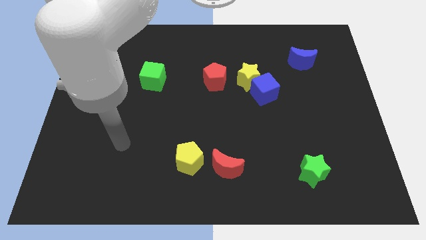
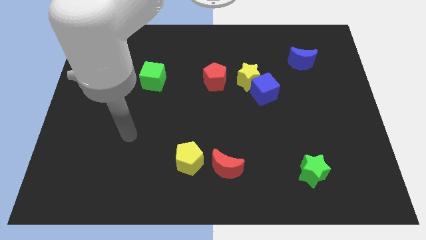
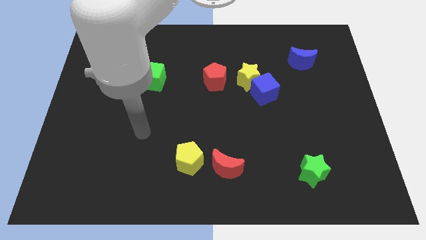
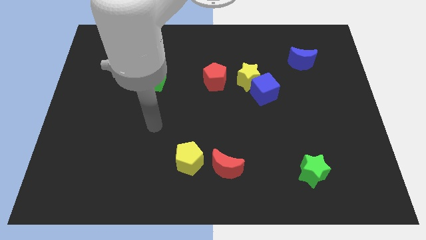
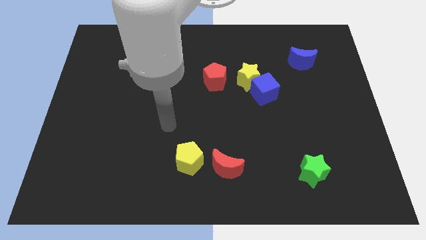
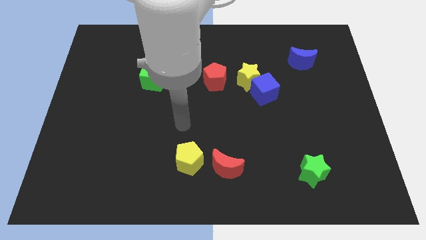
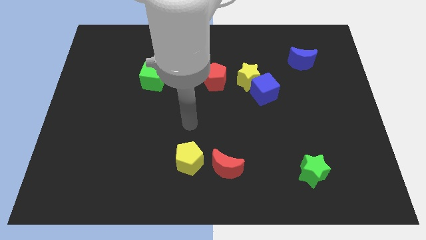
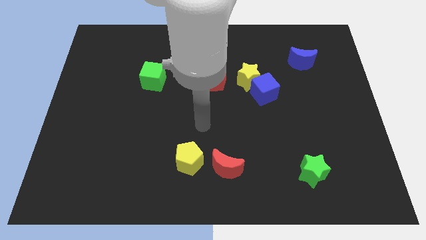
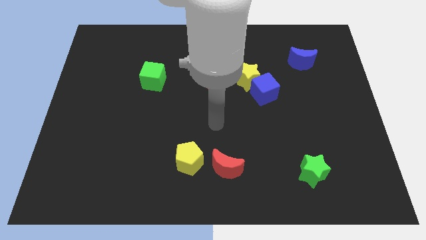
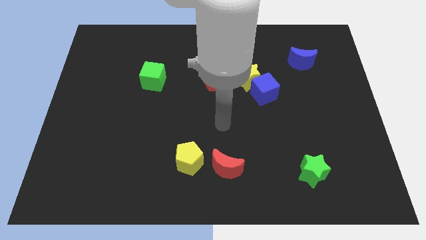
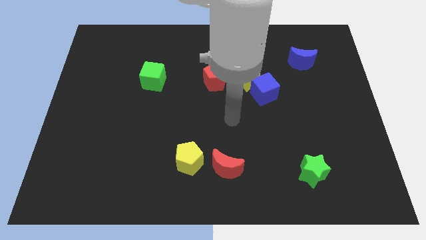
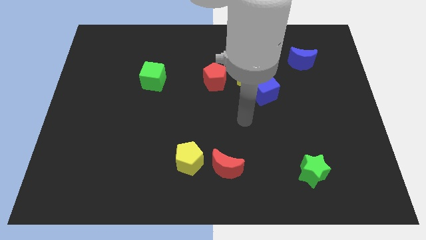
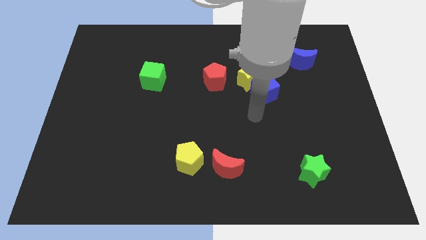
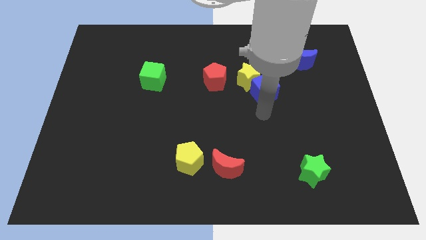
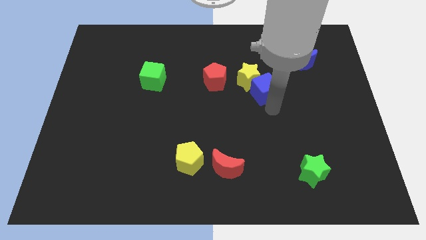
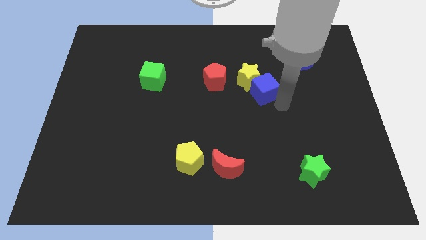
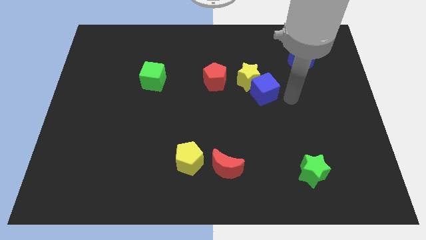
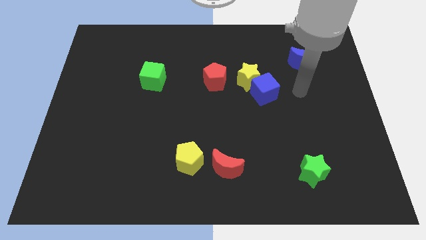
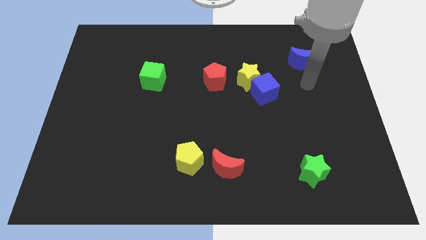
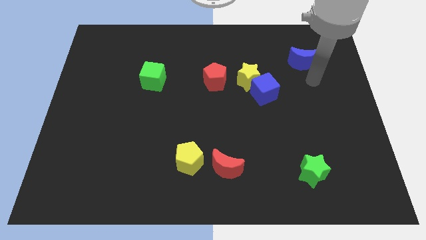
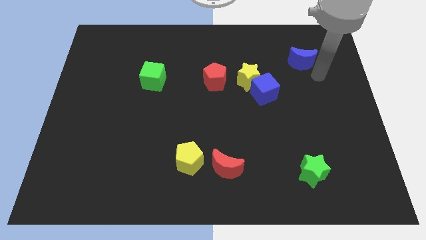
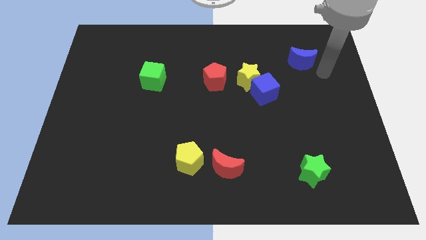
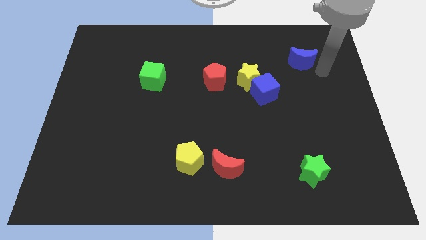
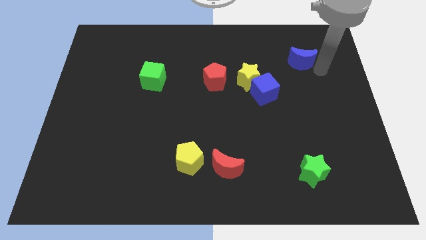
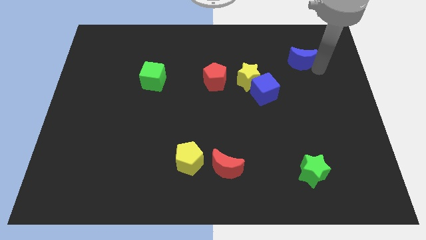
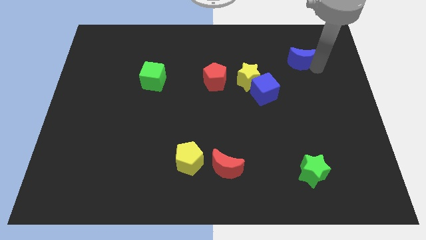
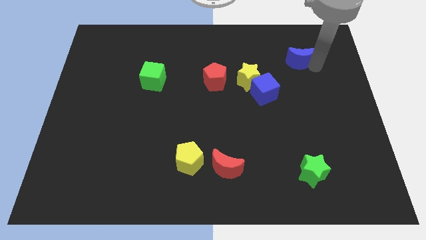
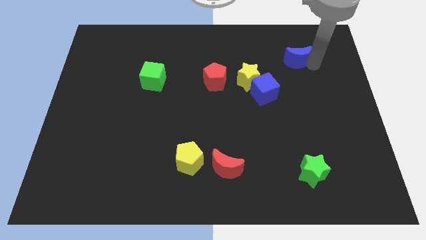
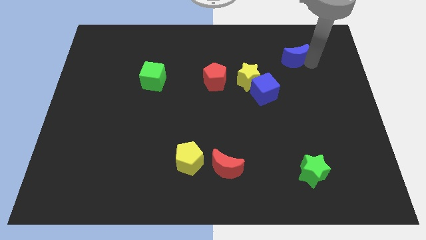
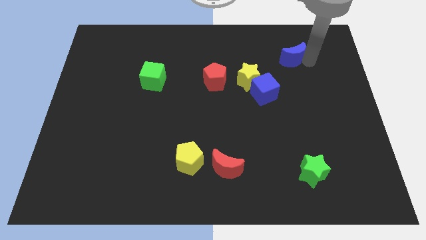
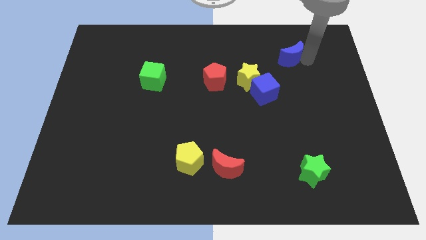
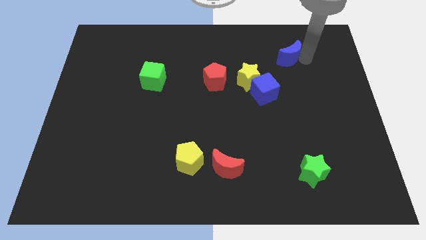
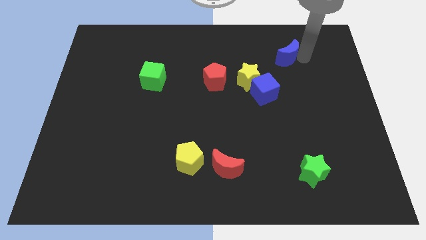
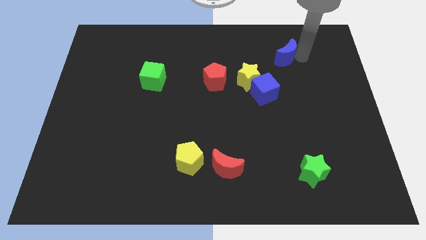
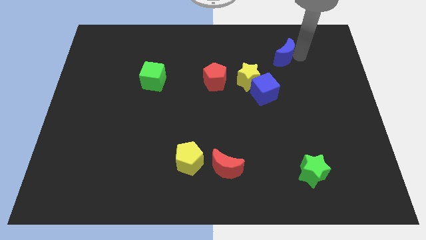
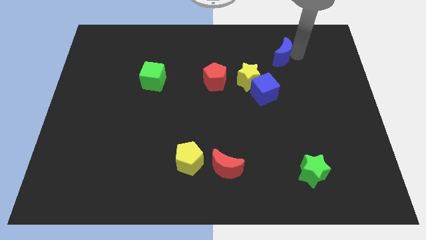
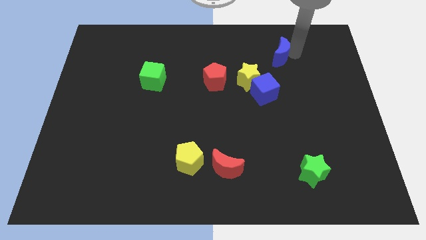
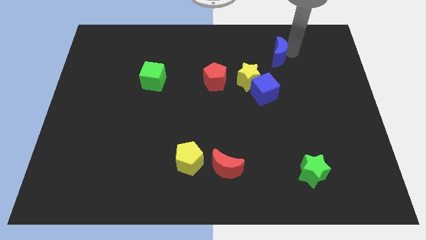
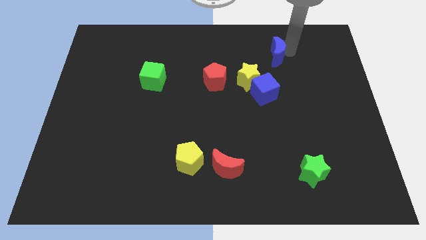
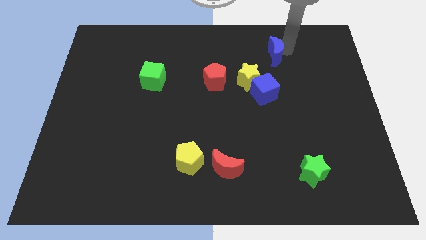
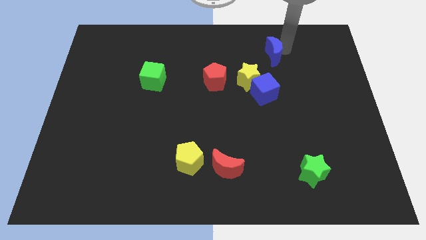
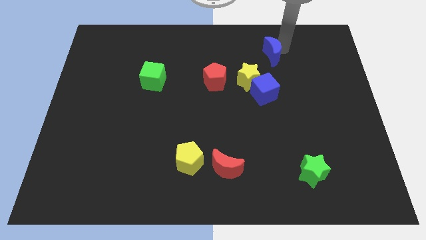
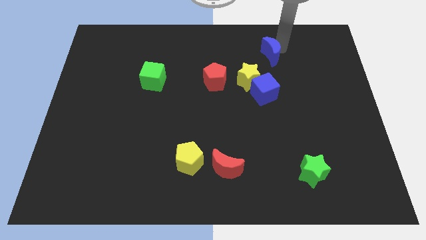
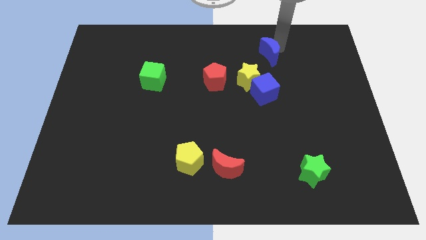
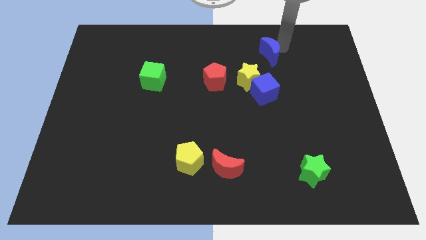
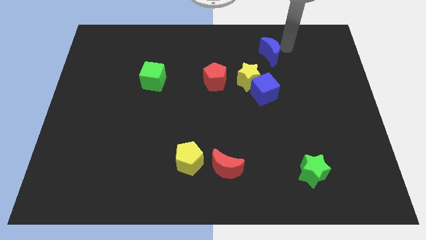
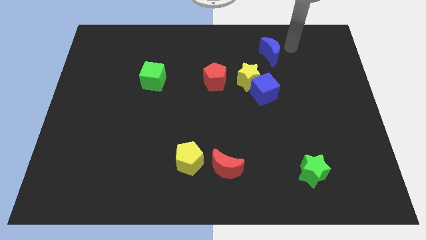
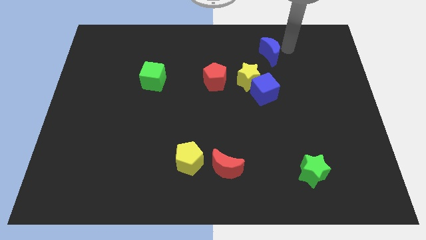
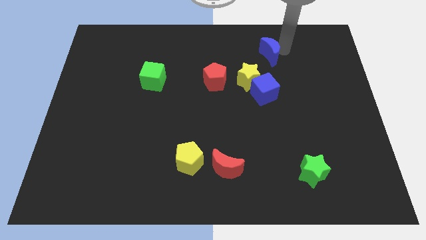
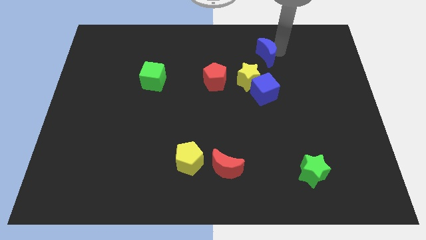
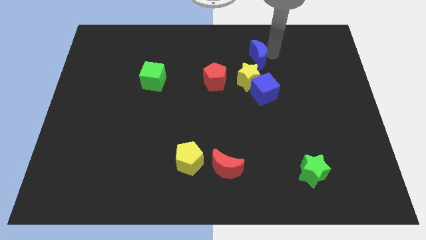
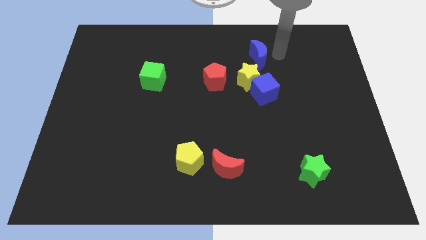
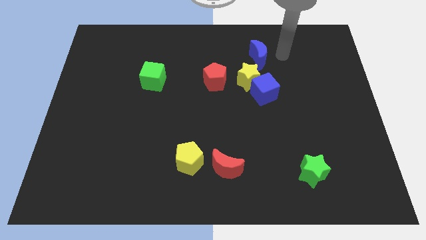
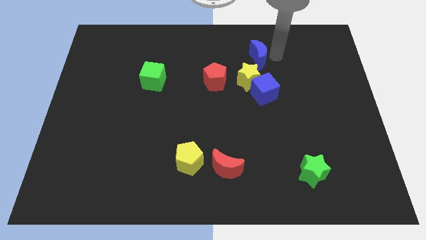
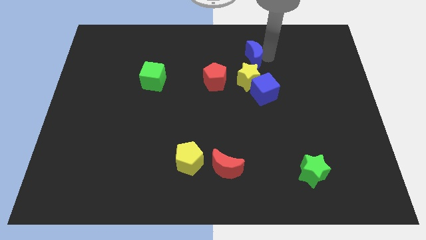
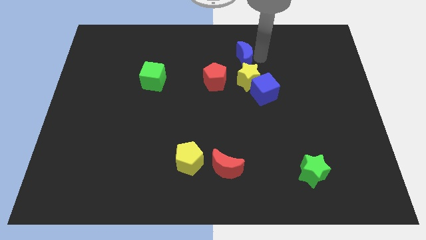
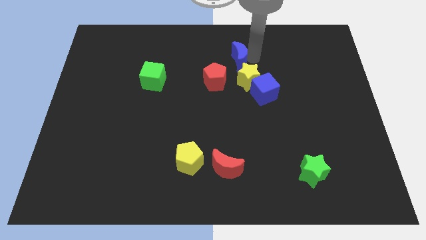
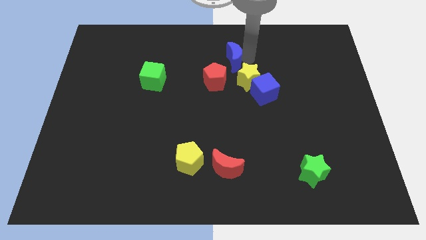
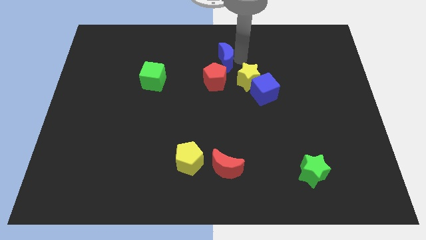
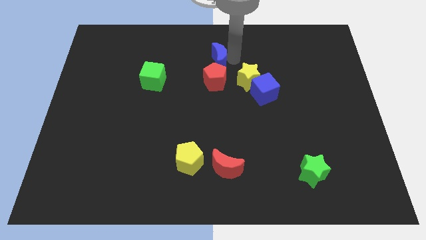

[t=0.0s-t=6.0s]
move the blue moon to the left

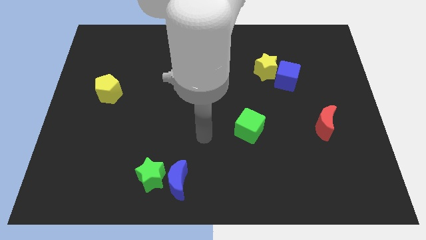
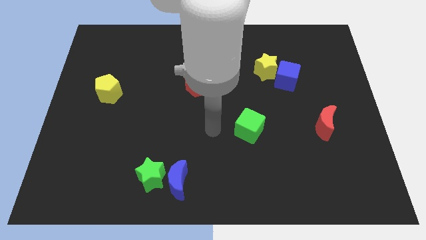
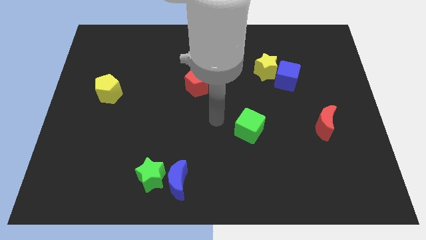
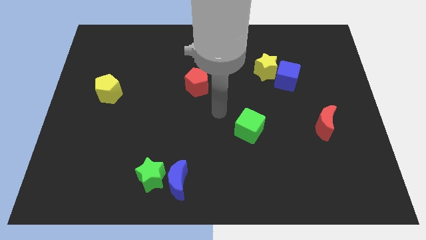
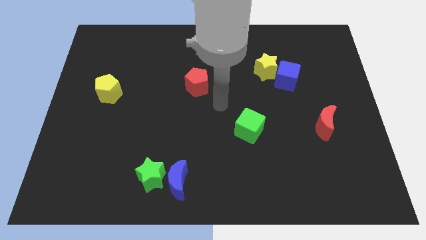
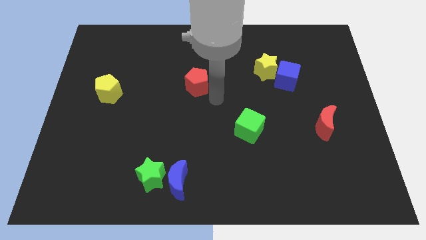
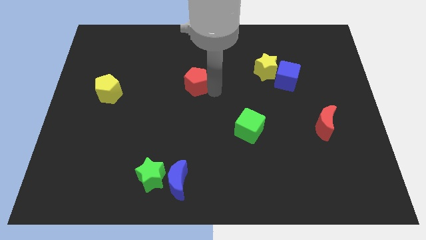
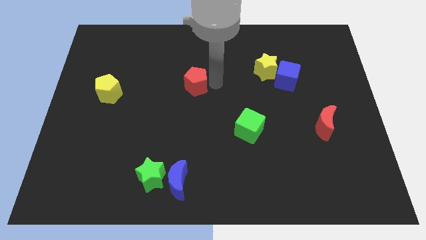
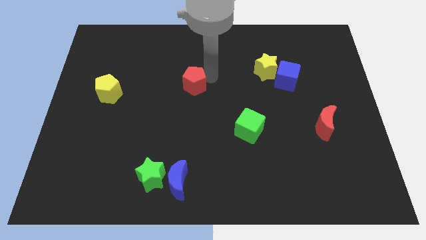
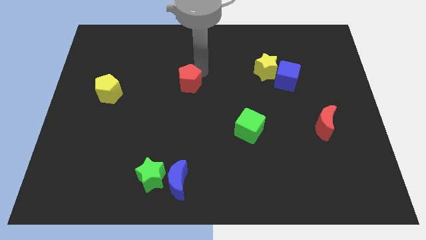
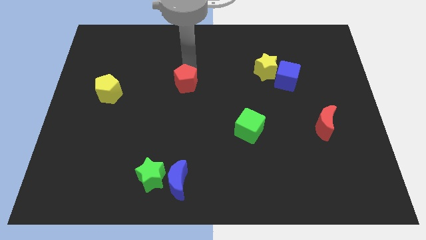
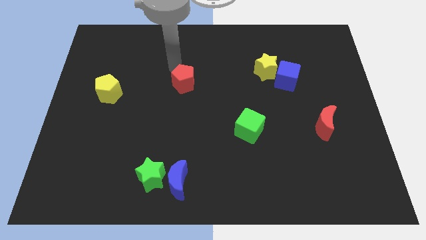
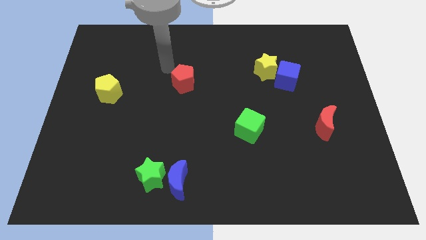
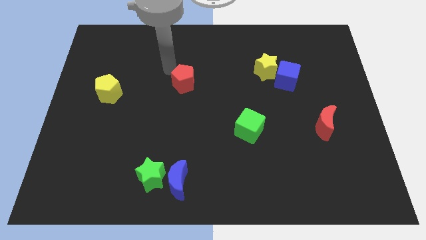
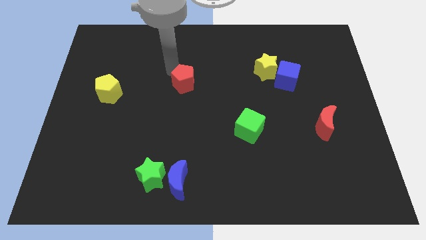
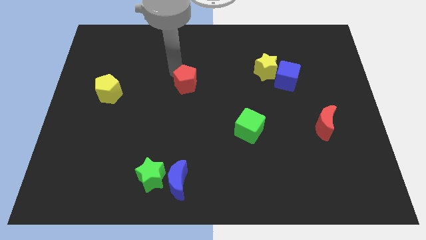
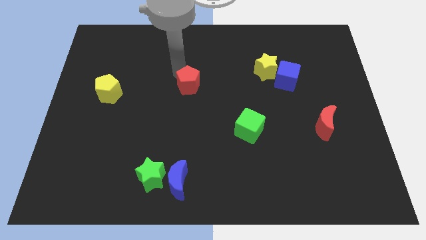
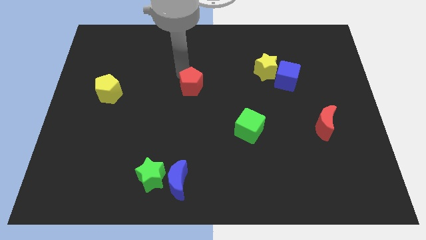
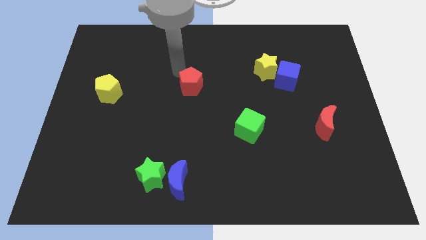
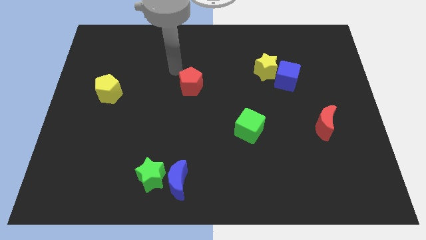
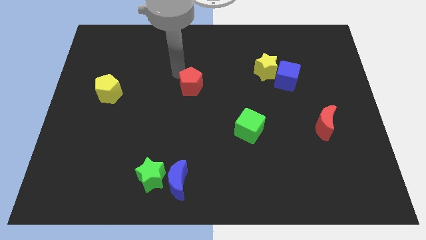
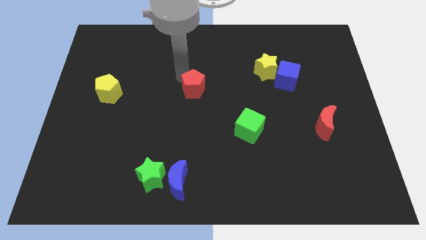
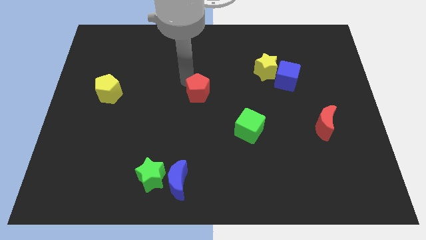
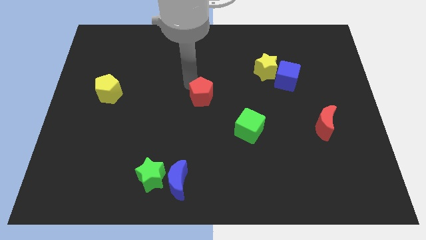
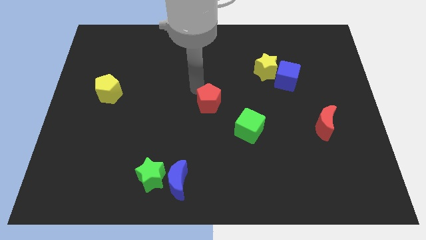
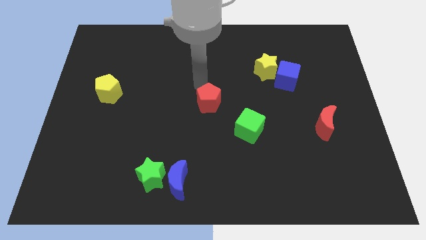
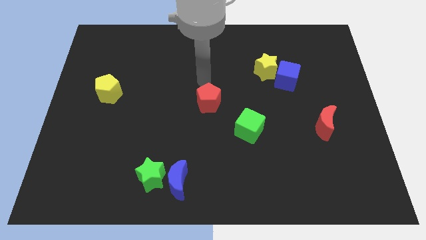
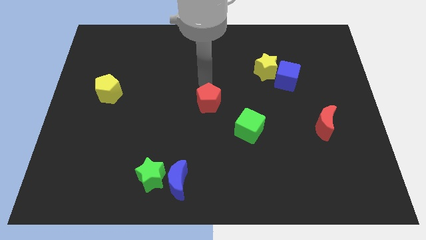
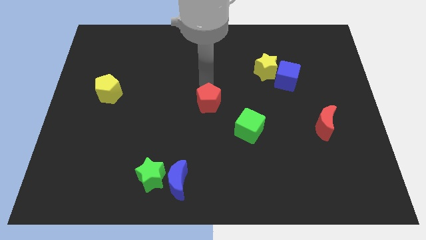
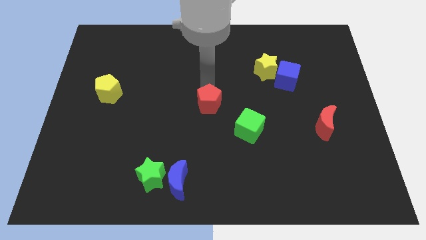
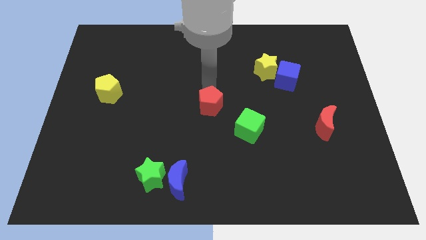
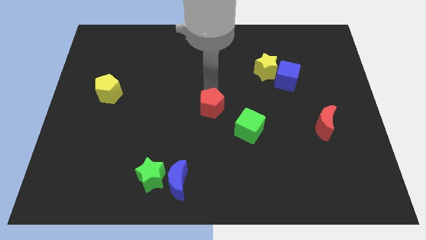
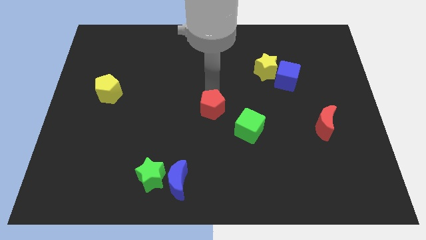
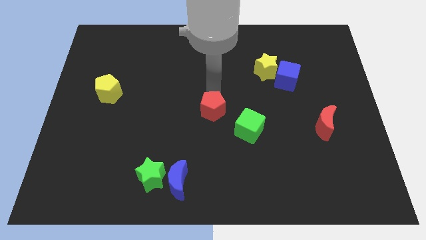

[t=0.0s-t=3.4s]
slightly slide the red pentagon down
